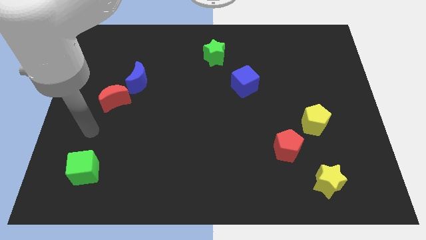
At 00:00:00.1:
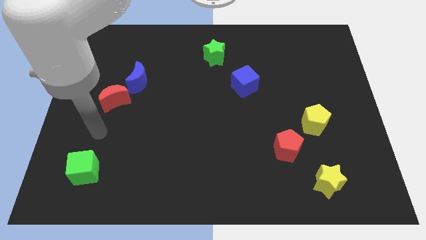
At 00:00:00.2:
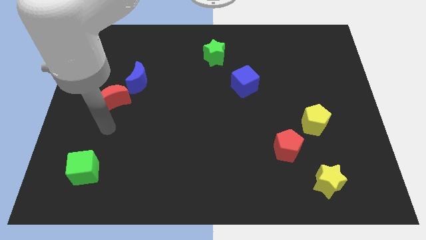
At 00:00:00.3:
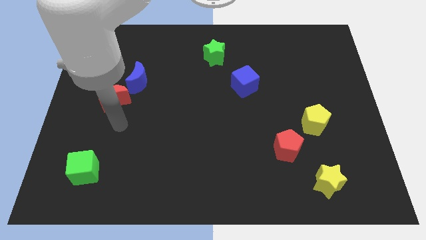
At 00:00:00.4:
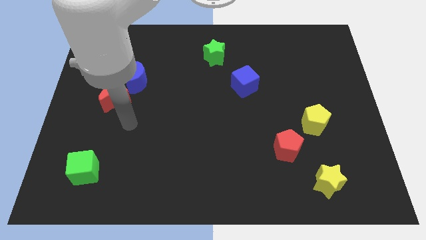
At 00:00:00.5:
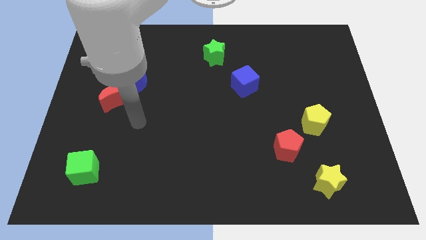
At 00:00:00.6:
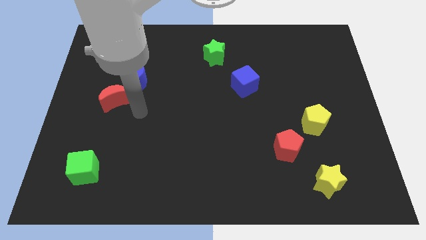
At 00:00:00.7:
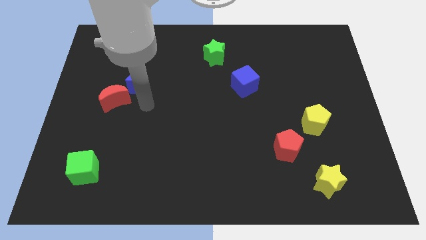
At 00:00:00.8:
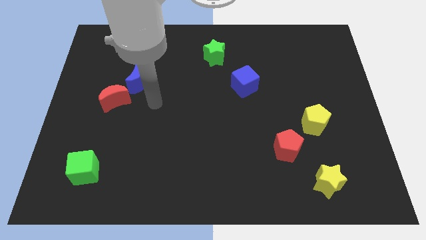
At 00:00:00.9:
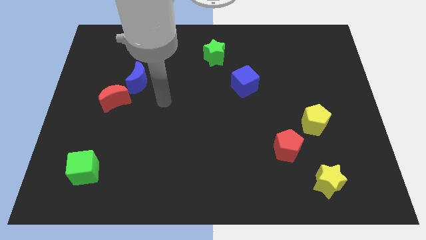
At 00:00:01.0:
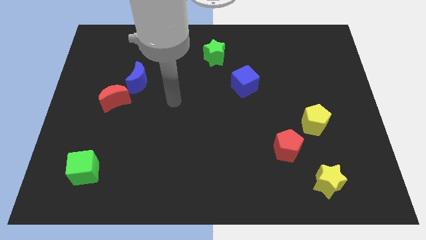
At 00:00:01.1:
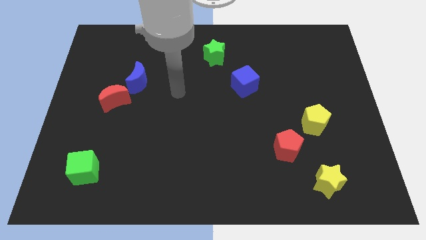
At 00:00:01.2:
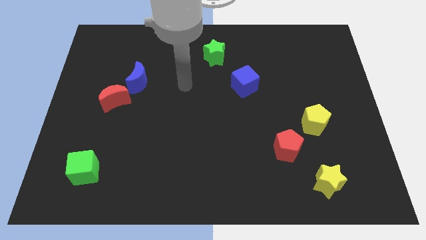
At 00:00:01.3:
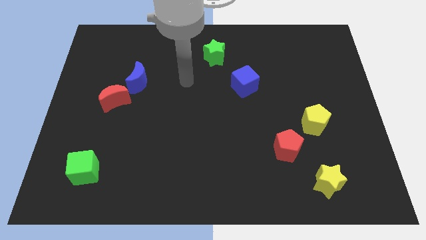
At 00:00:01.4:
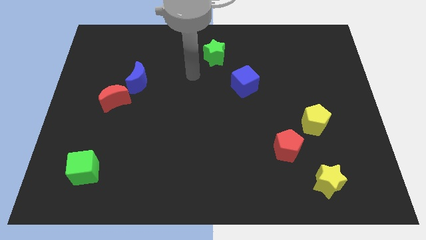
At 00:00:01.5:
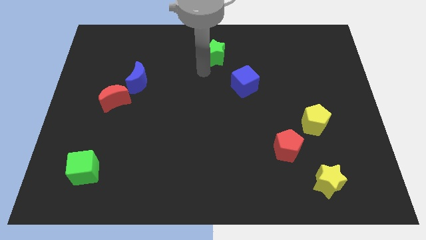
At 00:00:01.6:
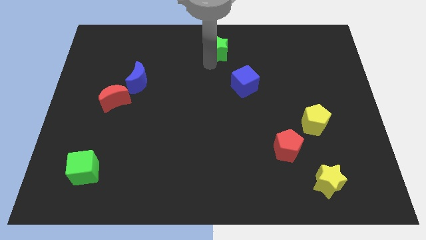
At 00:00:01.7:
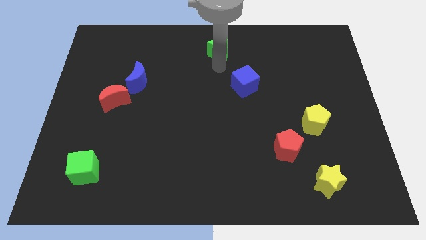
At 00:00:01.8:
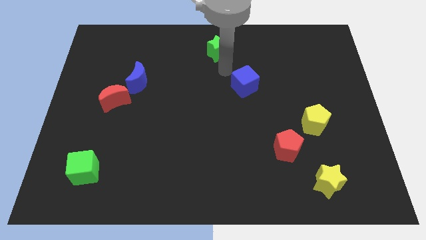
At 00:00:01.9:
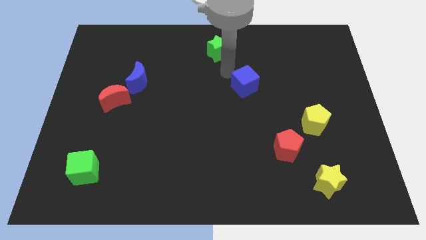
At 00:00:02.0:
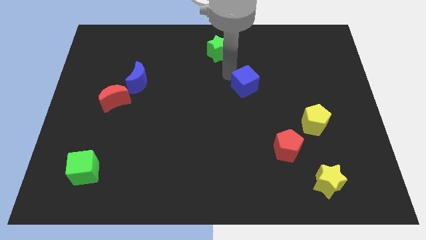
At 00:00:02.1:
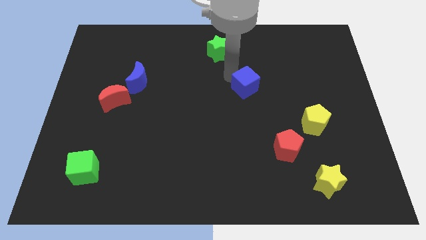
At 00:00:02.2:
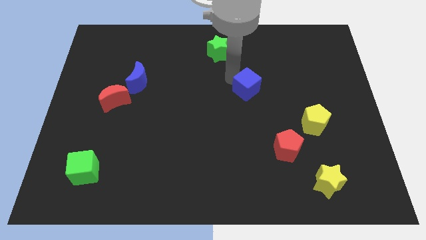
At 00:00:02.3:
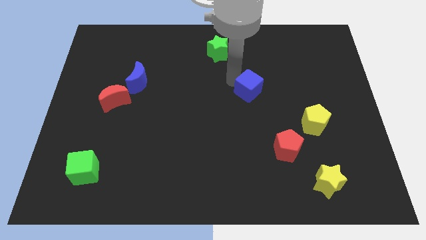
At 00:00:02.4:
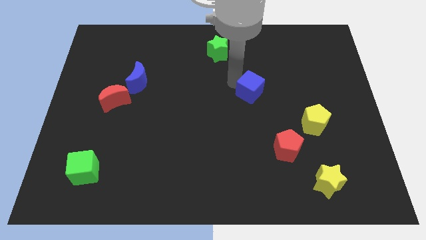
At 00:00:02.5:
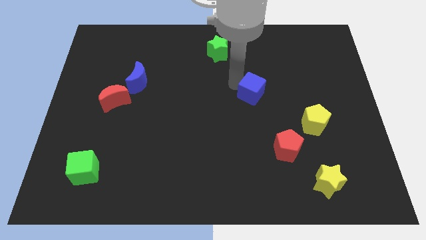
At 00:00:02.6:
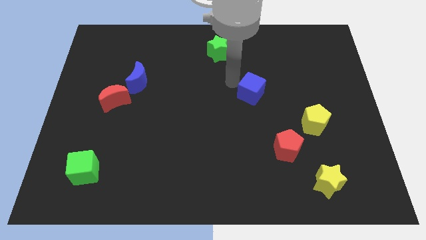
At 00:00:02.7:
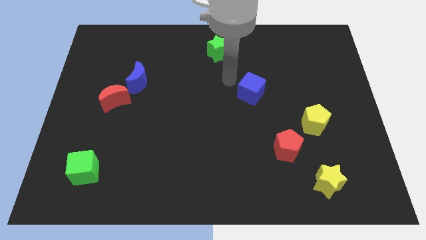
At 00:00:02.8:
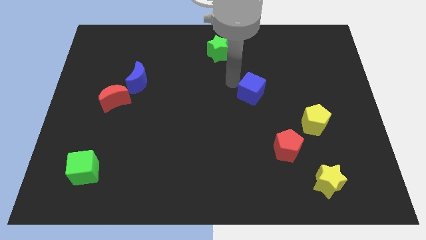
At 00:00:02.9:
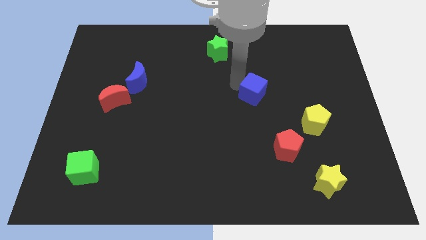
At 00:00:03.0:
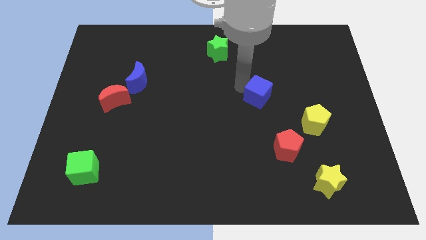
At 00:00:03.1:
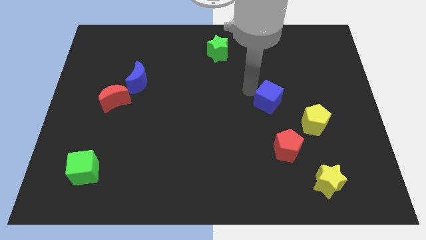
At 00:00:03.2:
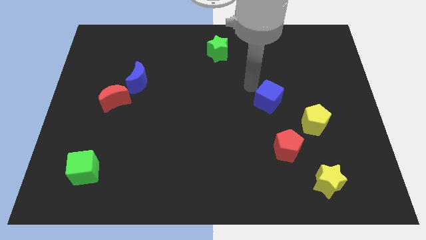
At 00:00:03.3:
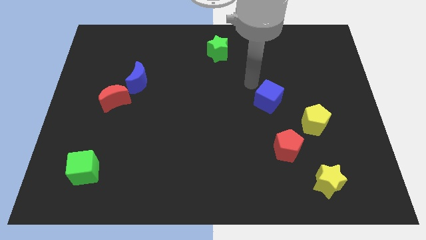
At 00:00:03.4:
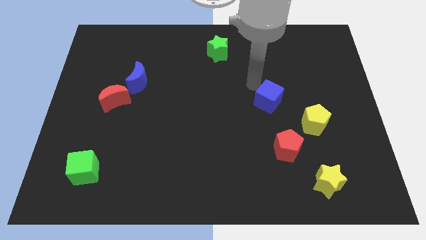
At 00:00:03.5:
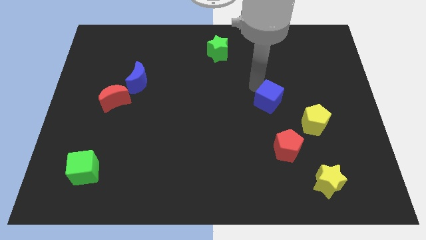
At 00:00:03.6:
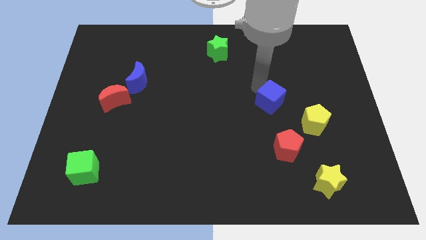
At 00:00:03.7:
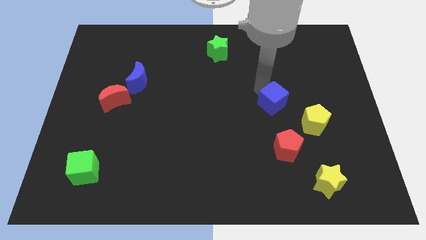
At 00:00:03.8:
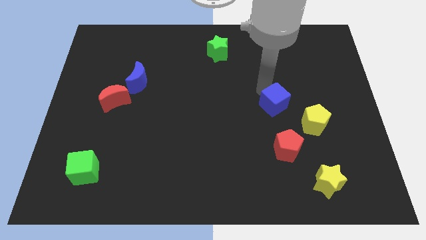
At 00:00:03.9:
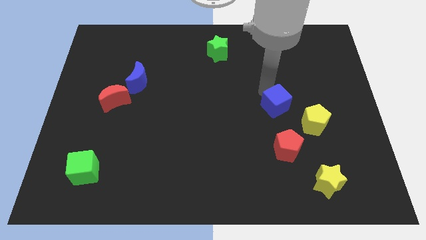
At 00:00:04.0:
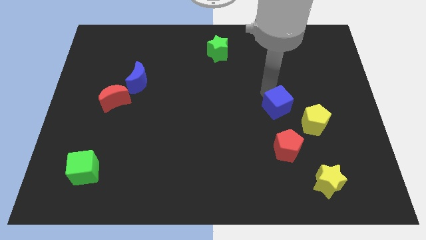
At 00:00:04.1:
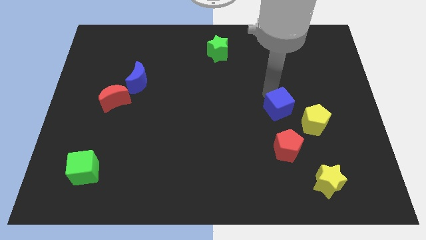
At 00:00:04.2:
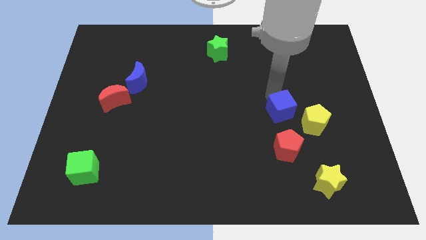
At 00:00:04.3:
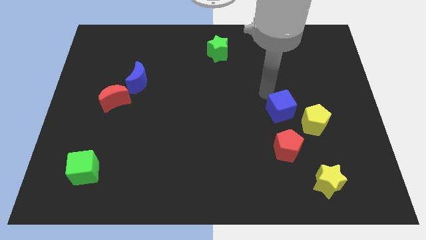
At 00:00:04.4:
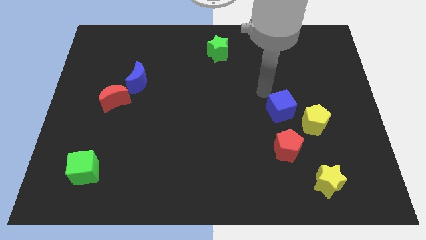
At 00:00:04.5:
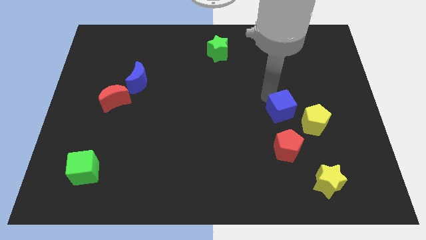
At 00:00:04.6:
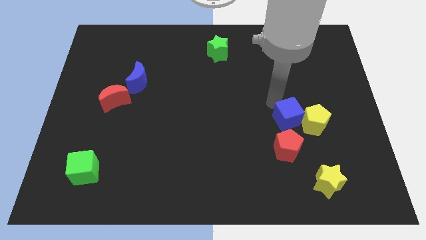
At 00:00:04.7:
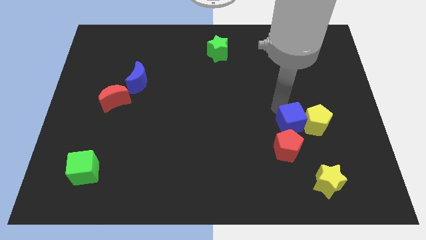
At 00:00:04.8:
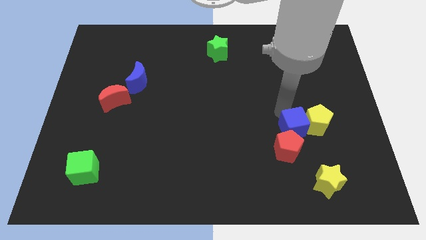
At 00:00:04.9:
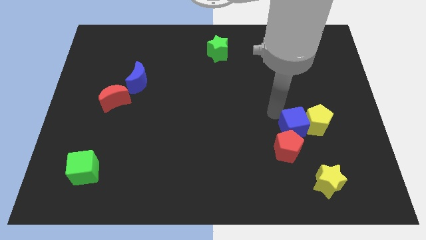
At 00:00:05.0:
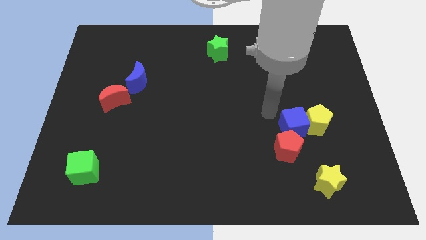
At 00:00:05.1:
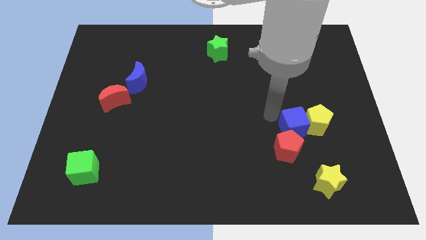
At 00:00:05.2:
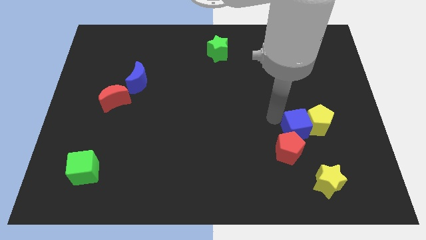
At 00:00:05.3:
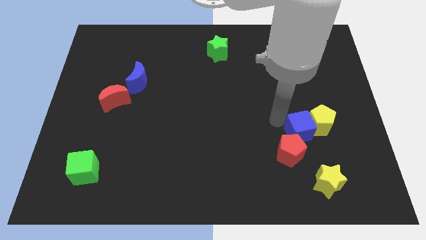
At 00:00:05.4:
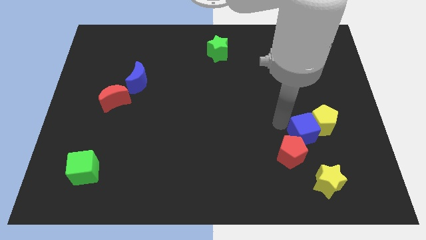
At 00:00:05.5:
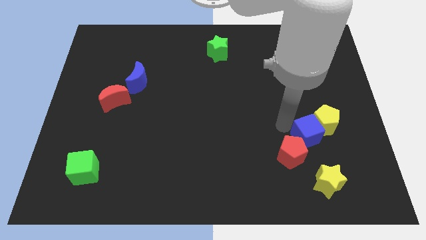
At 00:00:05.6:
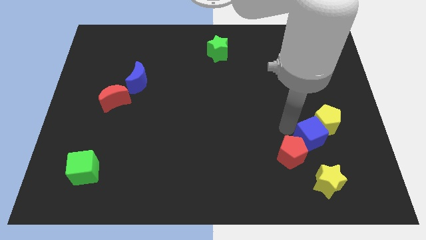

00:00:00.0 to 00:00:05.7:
move the blue cube just right of the red pentagon

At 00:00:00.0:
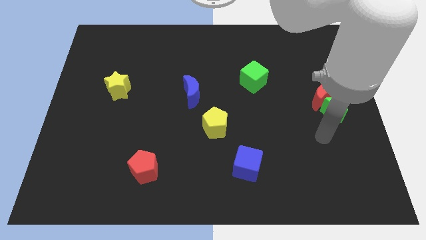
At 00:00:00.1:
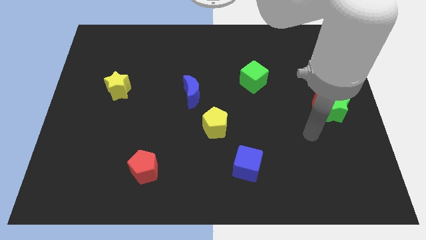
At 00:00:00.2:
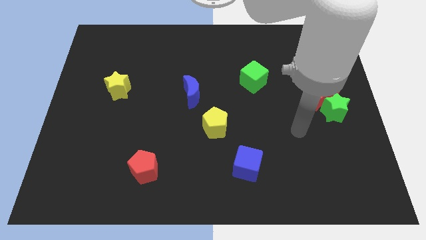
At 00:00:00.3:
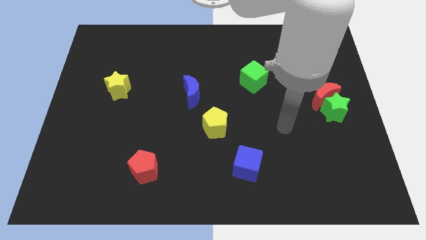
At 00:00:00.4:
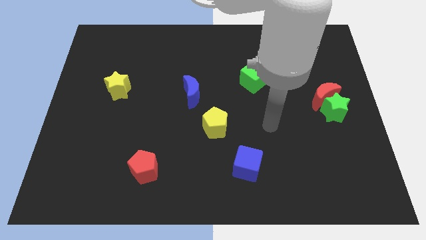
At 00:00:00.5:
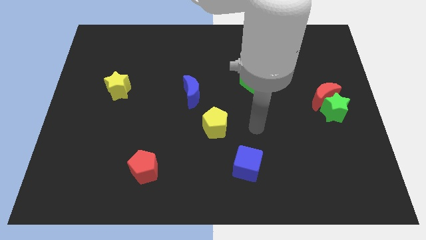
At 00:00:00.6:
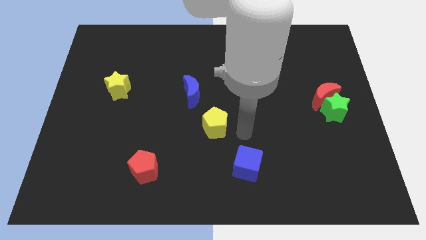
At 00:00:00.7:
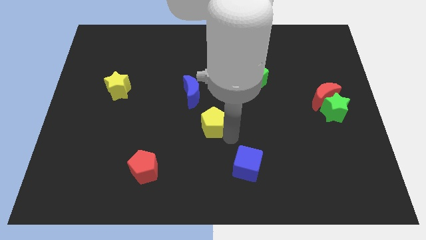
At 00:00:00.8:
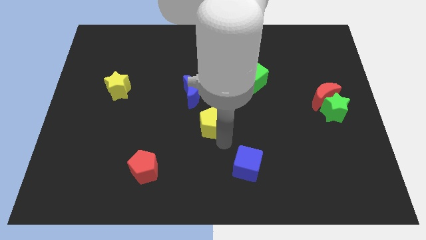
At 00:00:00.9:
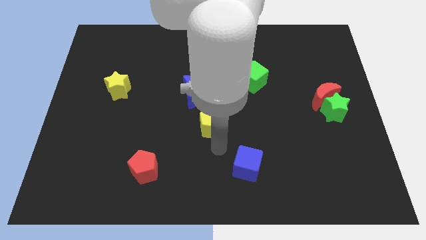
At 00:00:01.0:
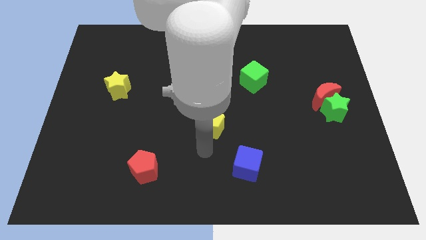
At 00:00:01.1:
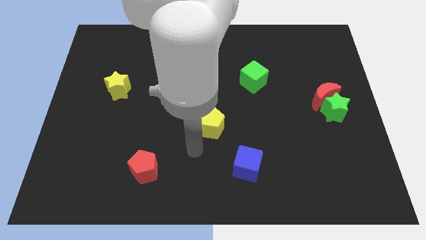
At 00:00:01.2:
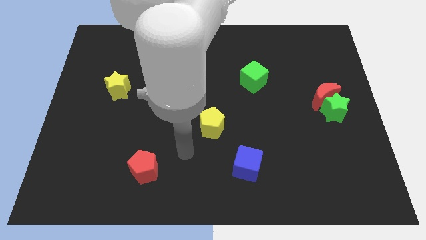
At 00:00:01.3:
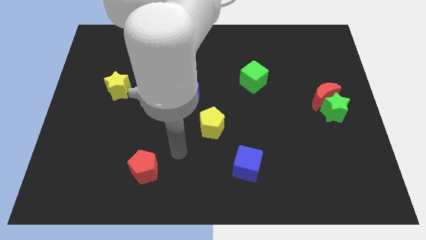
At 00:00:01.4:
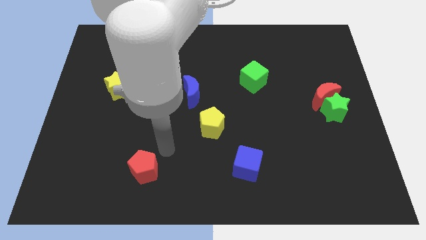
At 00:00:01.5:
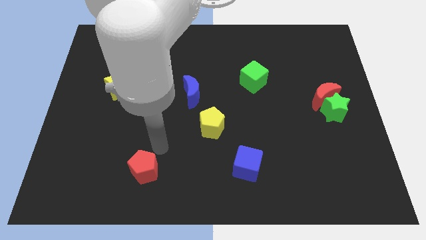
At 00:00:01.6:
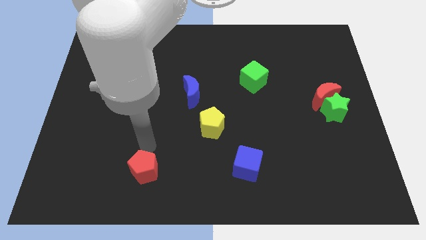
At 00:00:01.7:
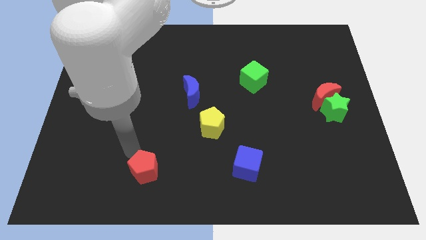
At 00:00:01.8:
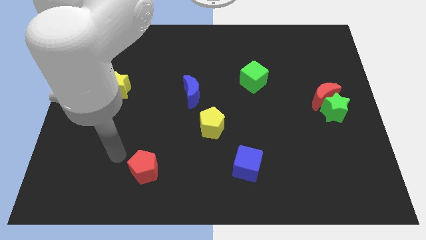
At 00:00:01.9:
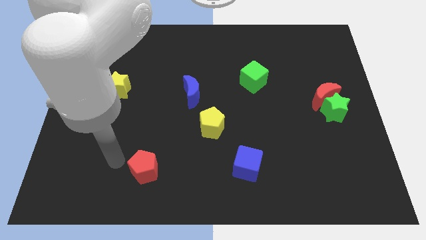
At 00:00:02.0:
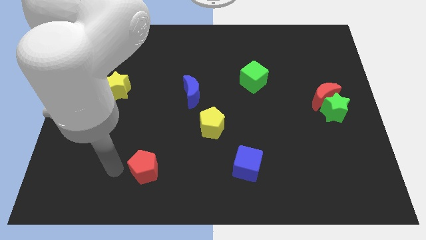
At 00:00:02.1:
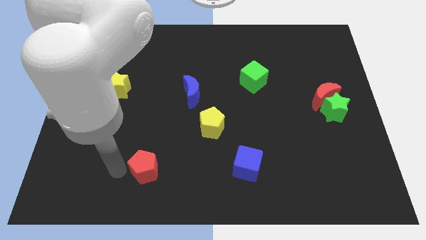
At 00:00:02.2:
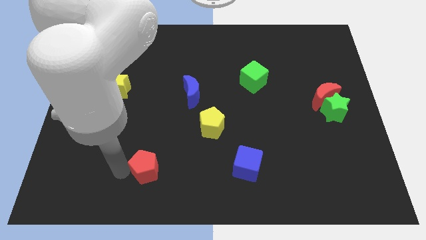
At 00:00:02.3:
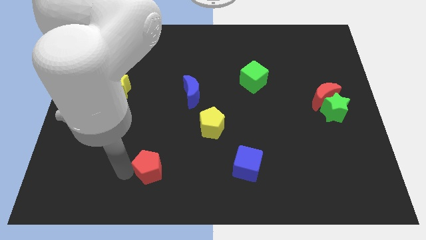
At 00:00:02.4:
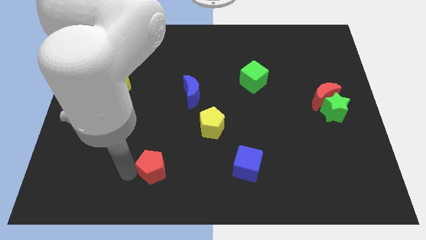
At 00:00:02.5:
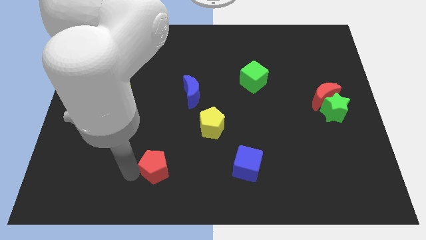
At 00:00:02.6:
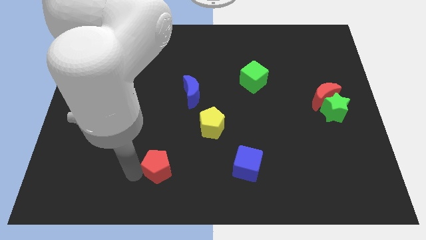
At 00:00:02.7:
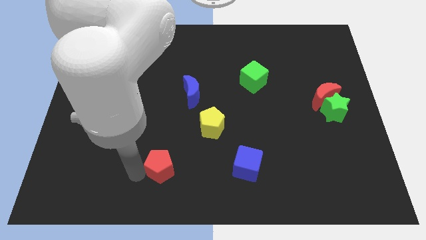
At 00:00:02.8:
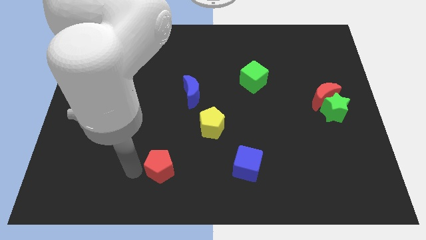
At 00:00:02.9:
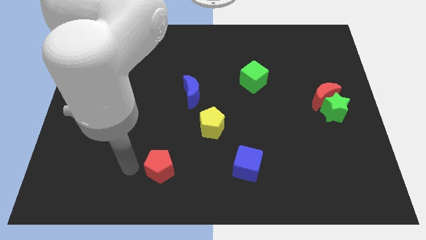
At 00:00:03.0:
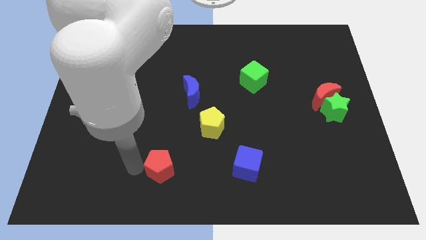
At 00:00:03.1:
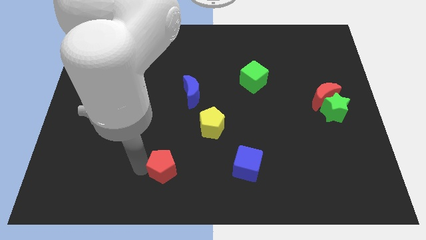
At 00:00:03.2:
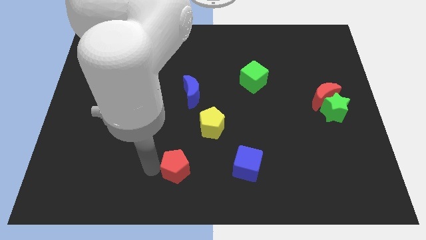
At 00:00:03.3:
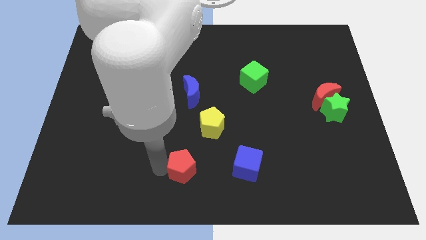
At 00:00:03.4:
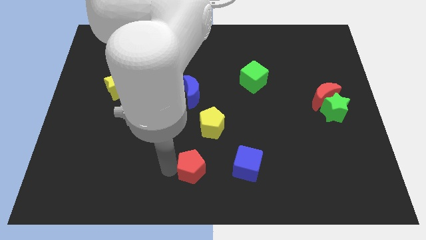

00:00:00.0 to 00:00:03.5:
push the red pentagon below the yellow pentagon
